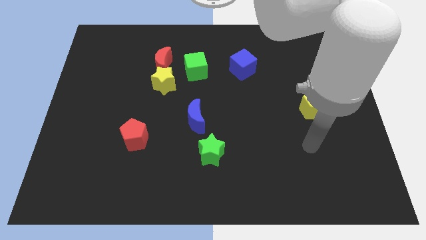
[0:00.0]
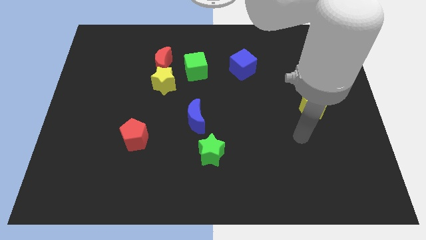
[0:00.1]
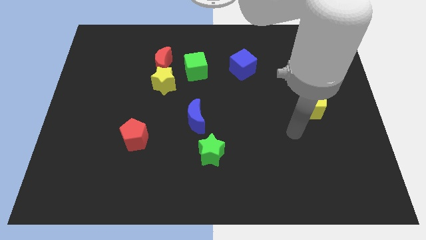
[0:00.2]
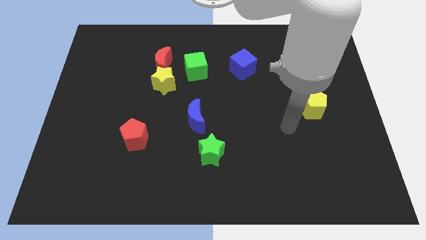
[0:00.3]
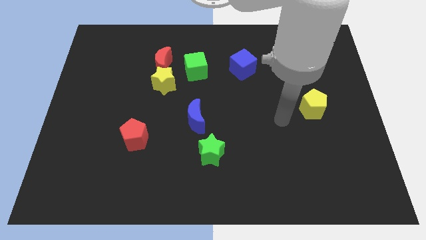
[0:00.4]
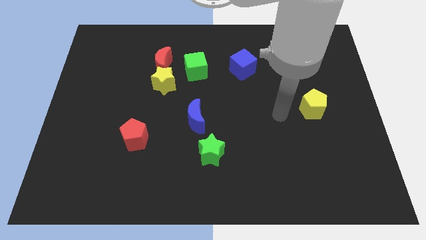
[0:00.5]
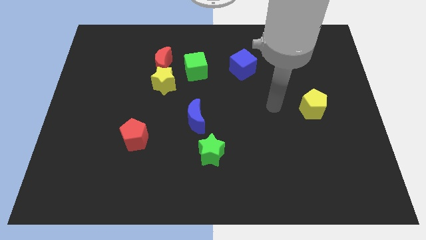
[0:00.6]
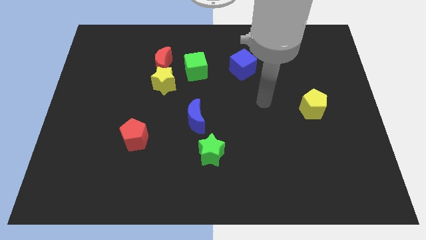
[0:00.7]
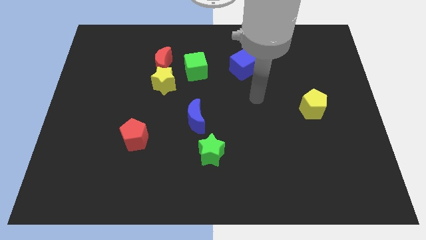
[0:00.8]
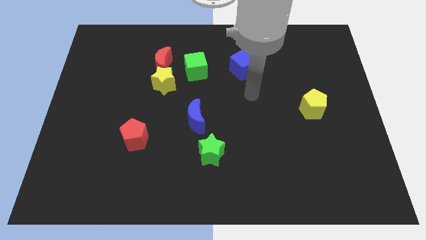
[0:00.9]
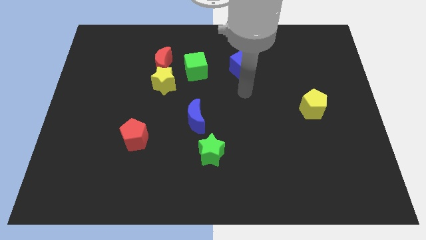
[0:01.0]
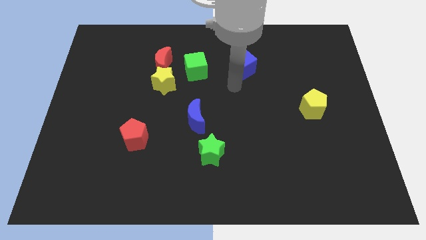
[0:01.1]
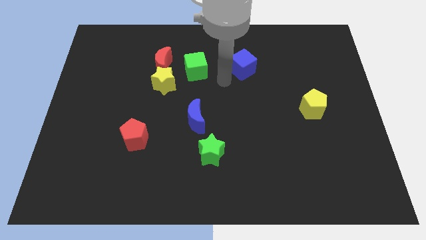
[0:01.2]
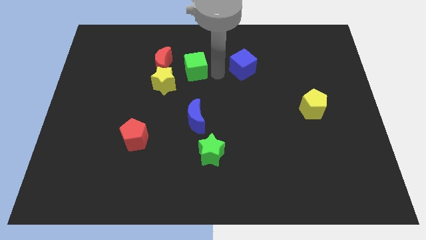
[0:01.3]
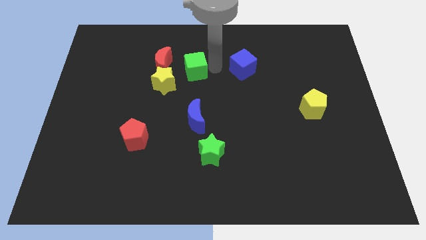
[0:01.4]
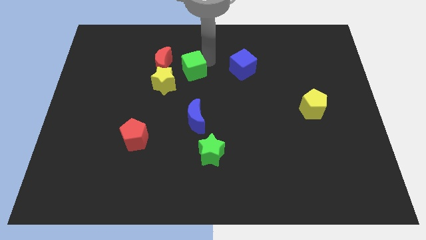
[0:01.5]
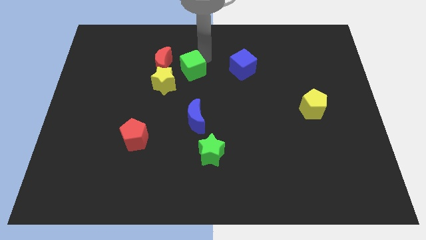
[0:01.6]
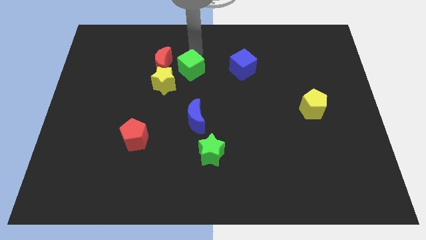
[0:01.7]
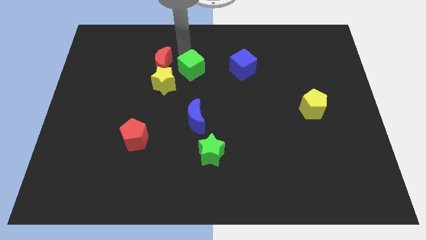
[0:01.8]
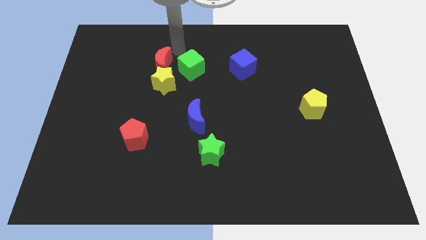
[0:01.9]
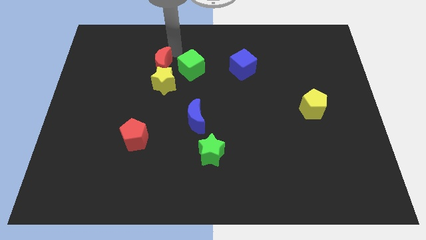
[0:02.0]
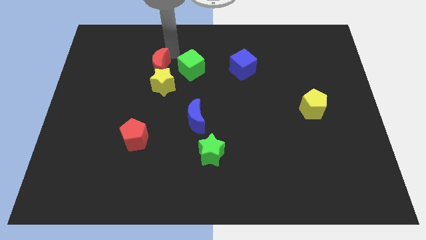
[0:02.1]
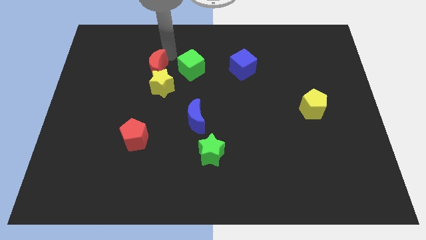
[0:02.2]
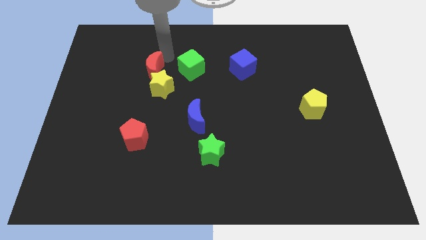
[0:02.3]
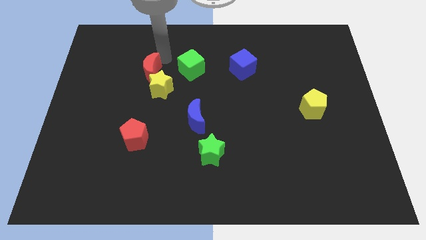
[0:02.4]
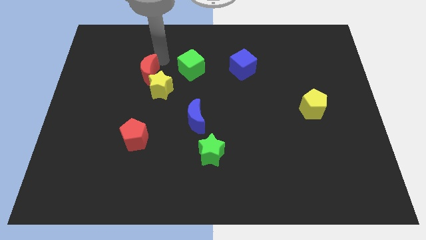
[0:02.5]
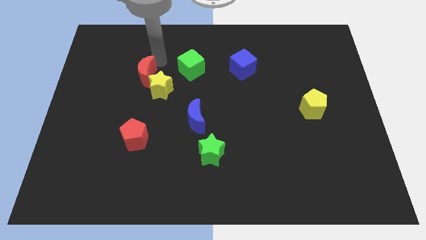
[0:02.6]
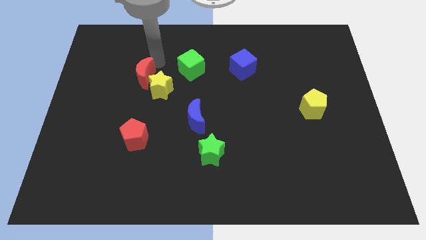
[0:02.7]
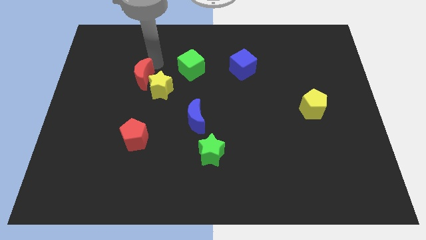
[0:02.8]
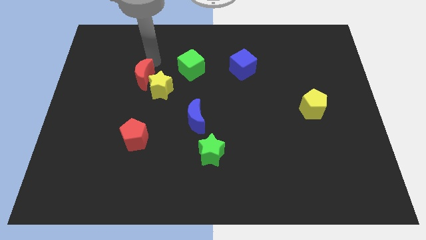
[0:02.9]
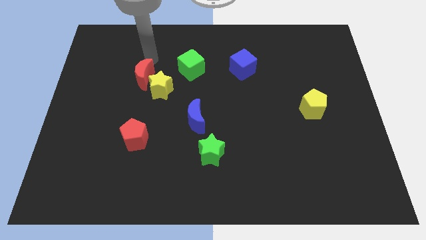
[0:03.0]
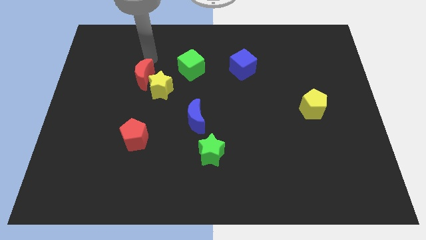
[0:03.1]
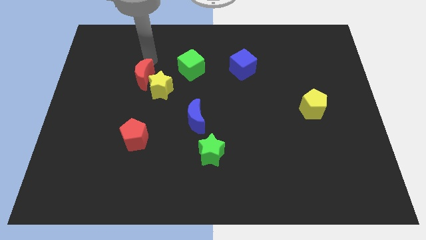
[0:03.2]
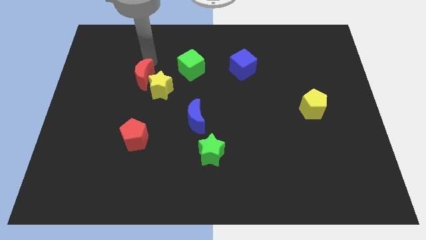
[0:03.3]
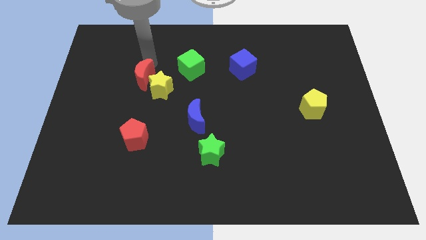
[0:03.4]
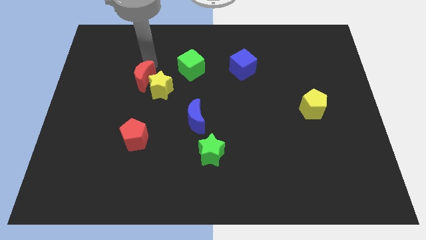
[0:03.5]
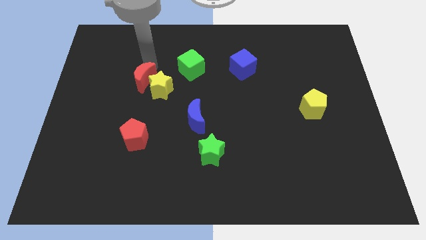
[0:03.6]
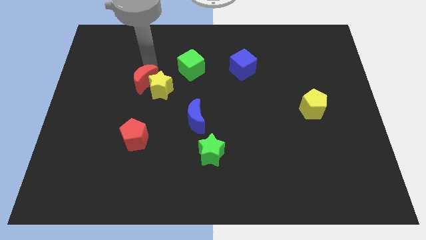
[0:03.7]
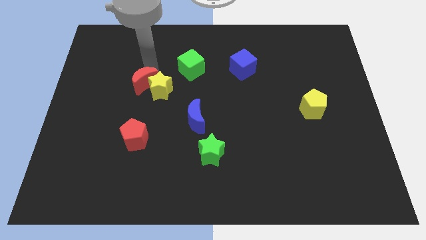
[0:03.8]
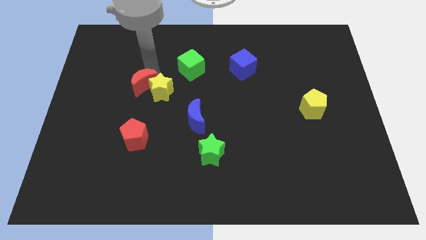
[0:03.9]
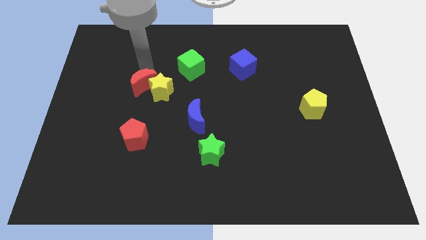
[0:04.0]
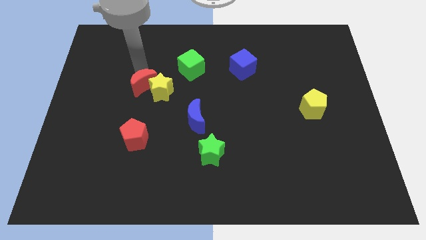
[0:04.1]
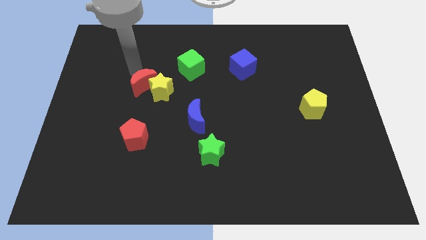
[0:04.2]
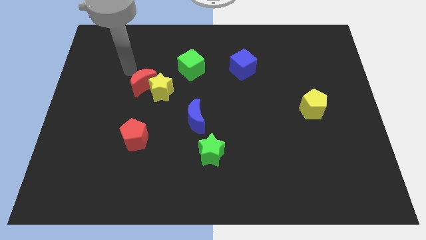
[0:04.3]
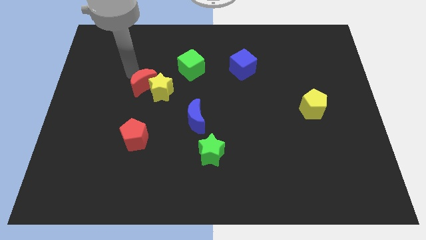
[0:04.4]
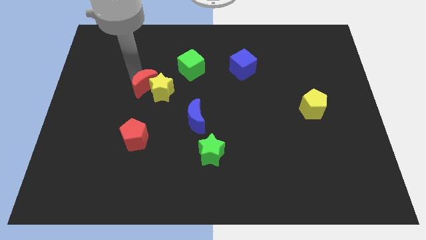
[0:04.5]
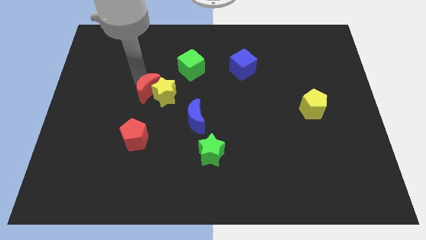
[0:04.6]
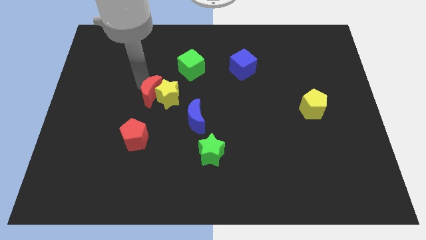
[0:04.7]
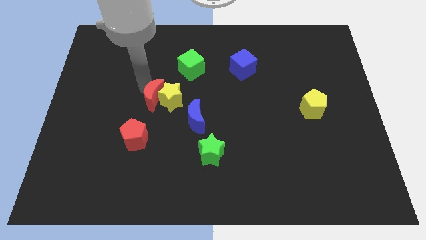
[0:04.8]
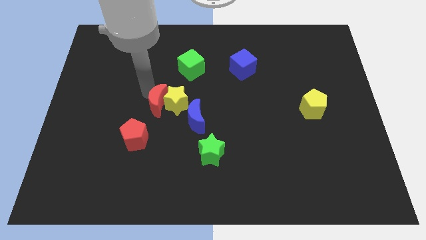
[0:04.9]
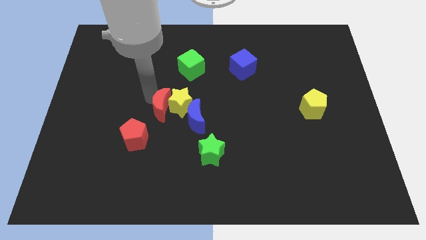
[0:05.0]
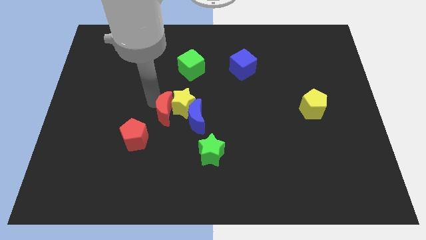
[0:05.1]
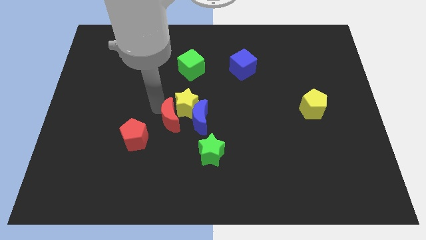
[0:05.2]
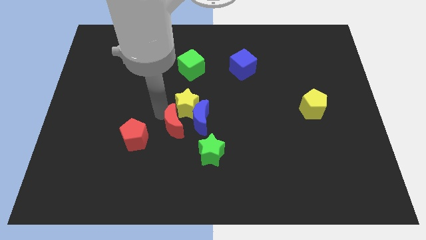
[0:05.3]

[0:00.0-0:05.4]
push the red moon next to the blue moon

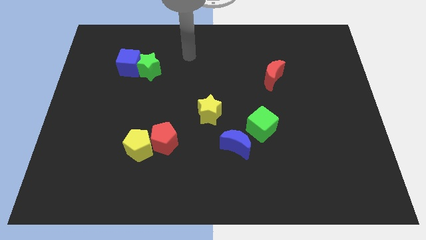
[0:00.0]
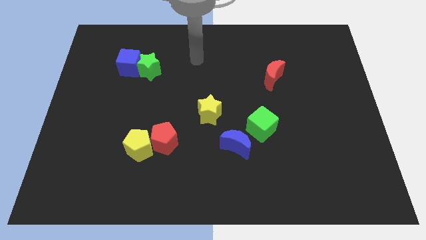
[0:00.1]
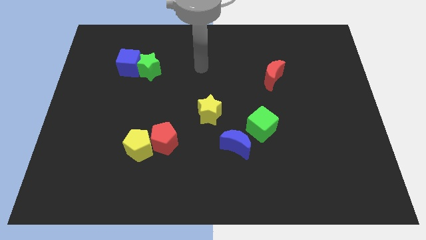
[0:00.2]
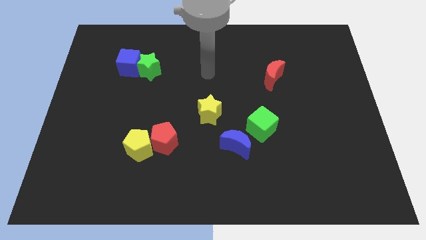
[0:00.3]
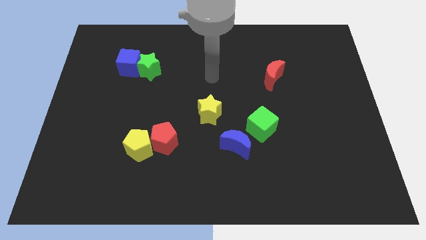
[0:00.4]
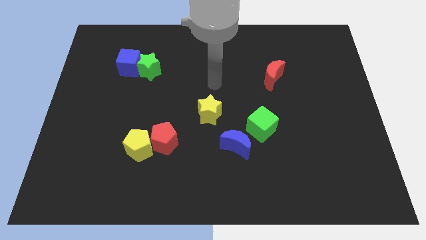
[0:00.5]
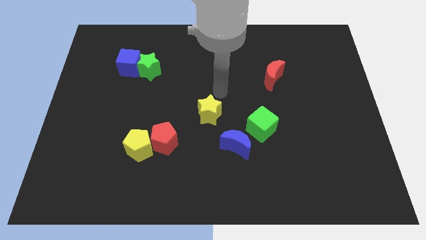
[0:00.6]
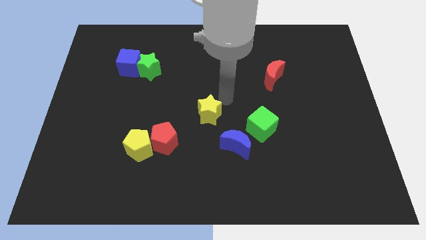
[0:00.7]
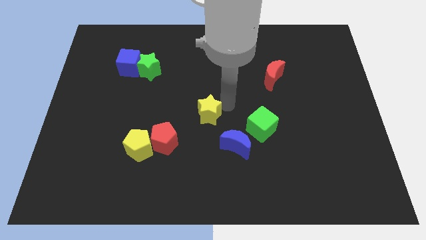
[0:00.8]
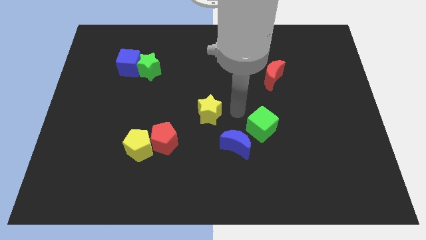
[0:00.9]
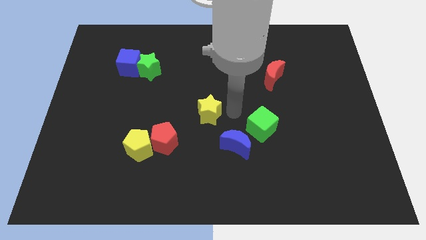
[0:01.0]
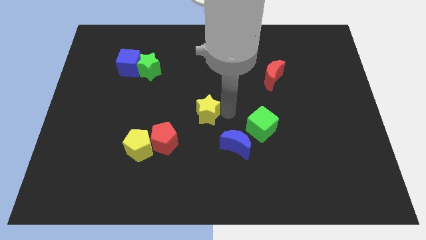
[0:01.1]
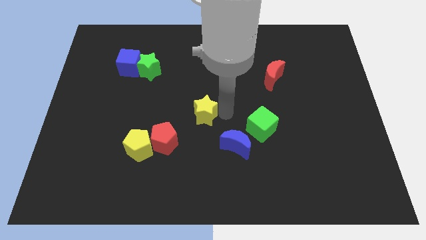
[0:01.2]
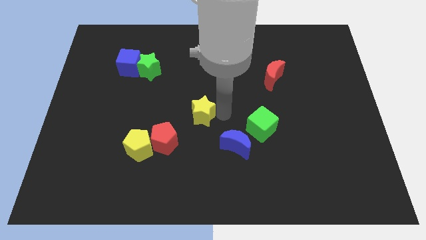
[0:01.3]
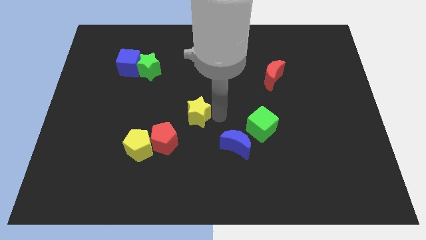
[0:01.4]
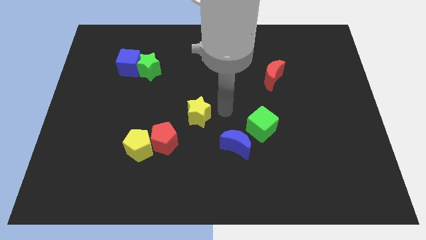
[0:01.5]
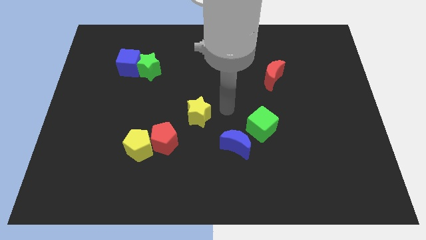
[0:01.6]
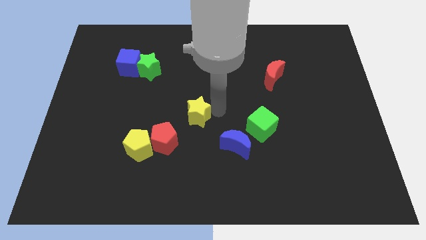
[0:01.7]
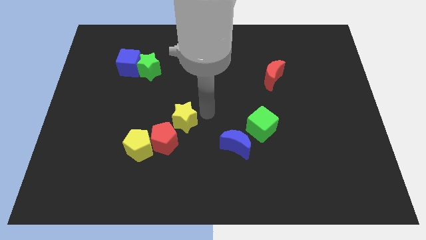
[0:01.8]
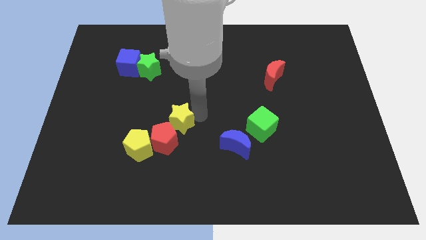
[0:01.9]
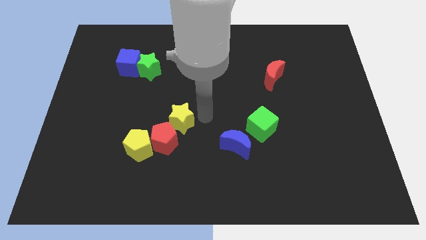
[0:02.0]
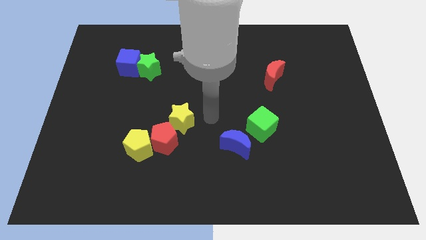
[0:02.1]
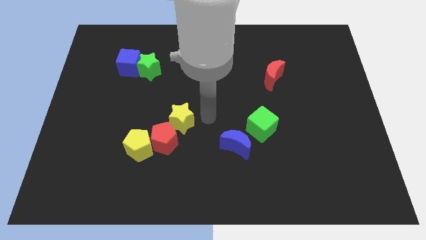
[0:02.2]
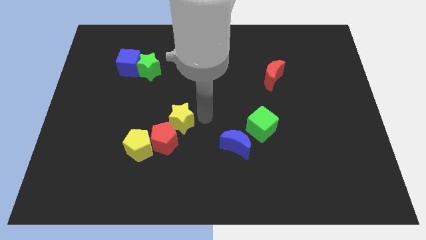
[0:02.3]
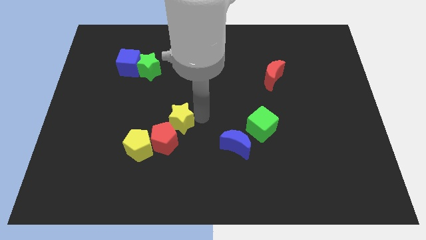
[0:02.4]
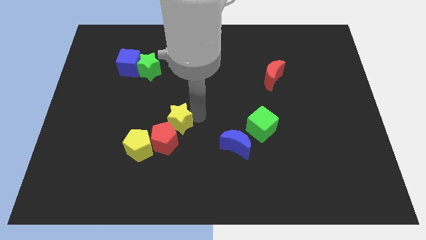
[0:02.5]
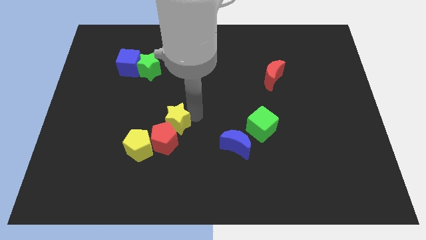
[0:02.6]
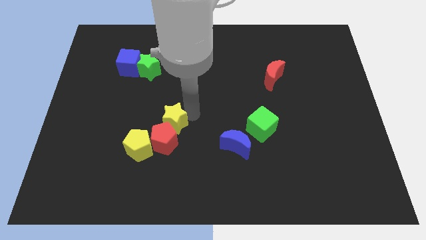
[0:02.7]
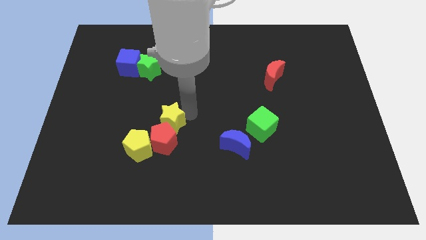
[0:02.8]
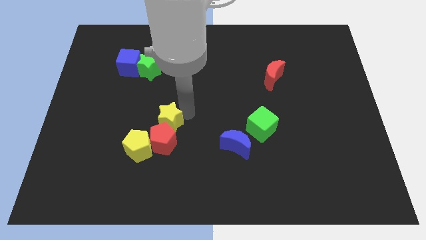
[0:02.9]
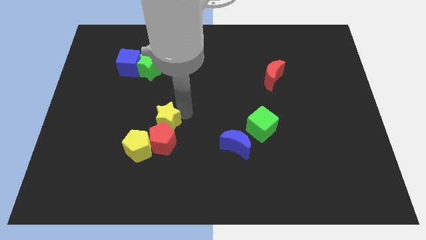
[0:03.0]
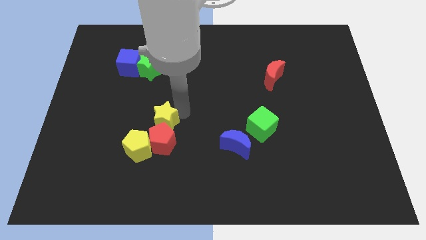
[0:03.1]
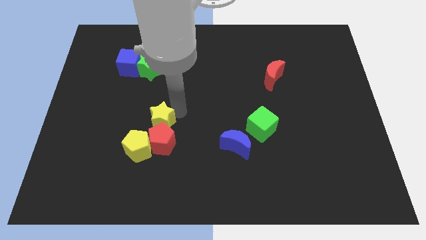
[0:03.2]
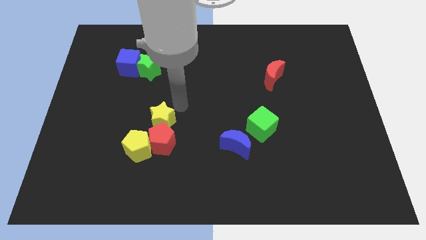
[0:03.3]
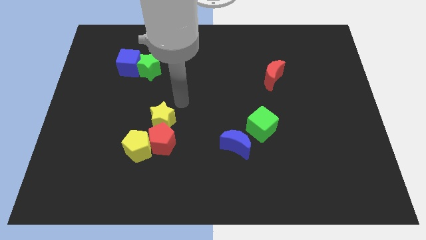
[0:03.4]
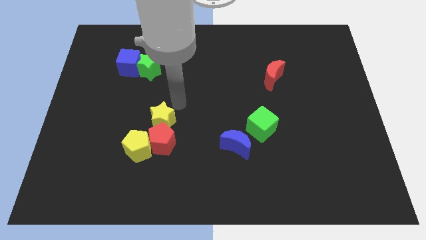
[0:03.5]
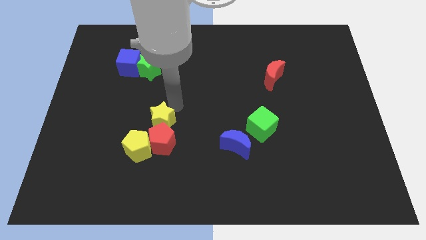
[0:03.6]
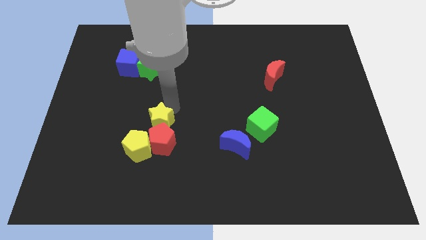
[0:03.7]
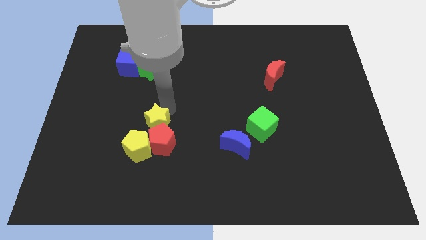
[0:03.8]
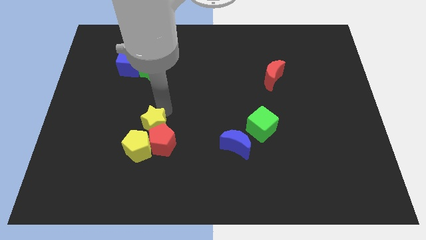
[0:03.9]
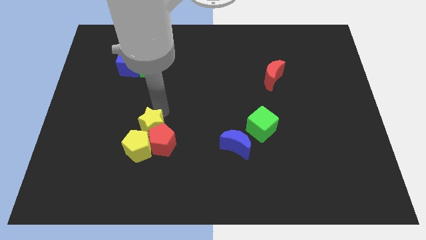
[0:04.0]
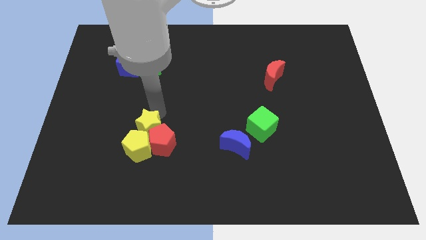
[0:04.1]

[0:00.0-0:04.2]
put the yellow star close to the yellow pentagon
